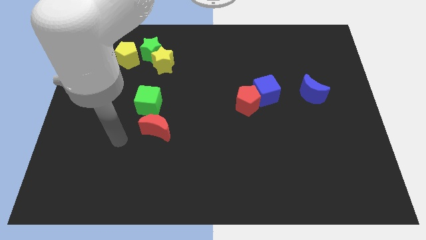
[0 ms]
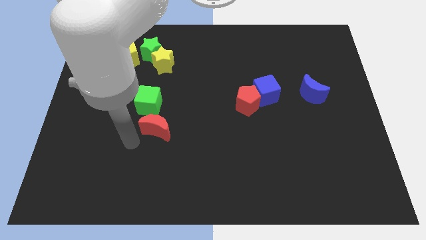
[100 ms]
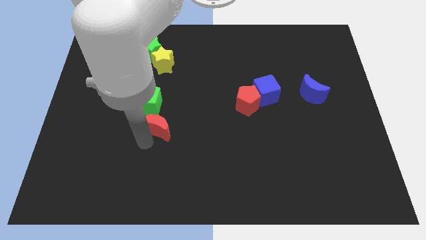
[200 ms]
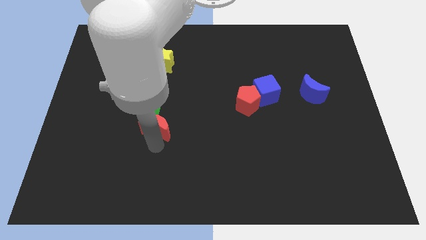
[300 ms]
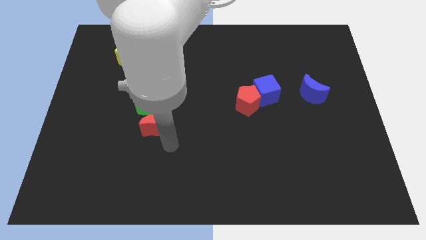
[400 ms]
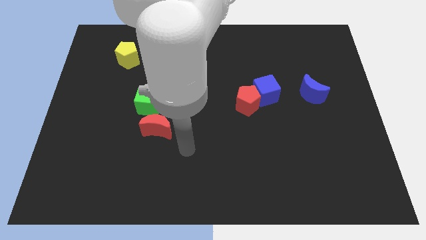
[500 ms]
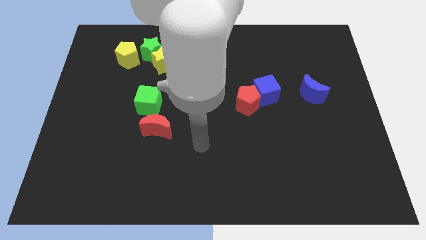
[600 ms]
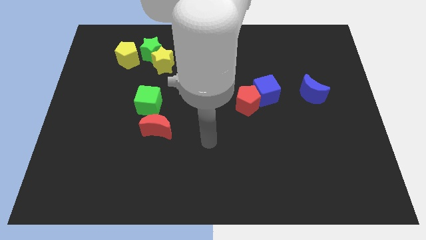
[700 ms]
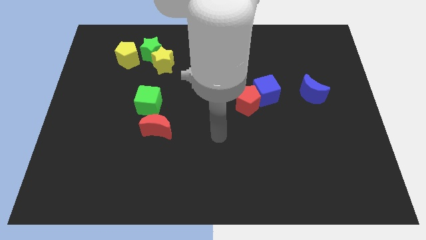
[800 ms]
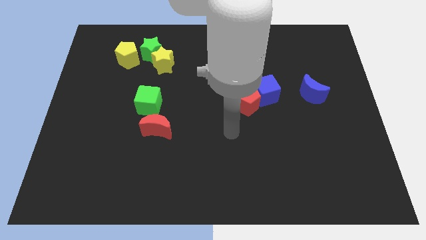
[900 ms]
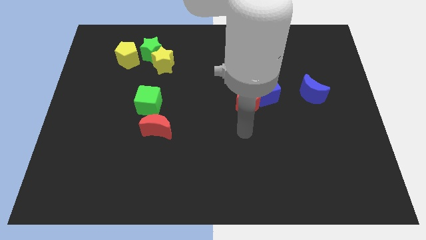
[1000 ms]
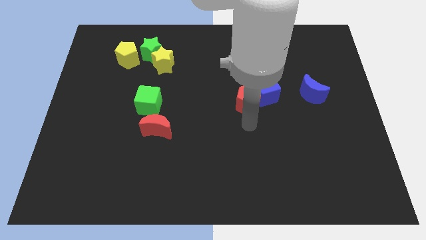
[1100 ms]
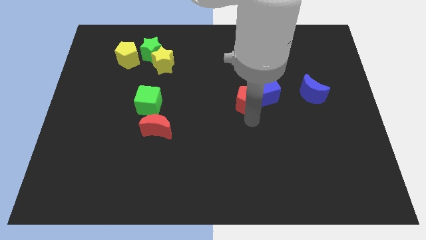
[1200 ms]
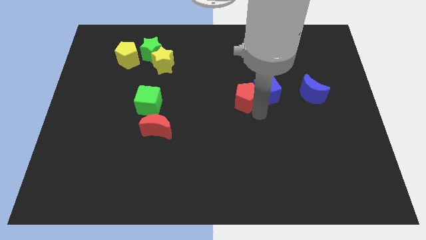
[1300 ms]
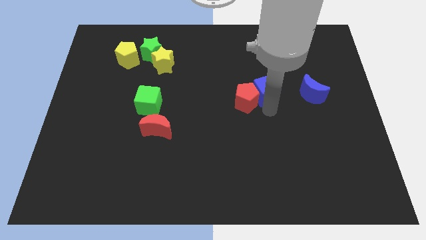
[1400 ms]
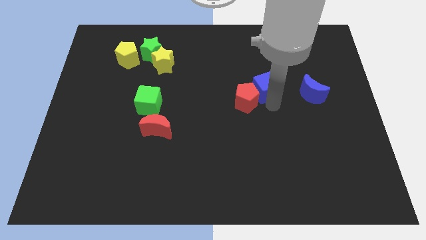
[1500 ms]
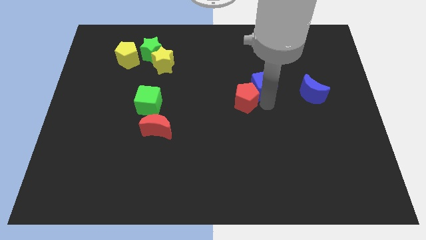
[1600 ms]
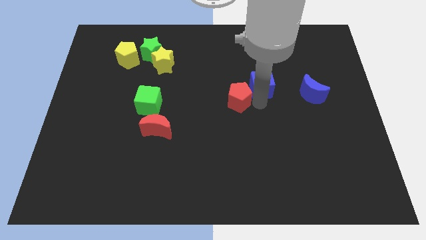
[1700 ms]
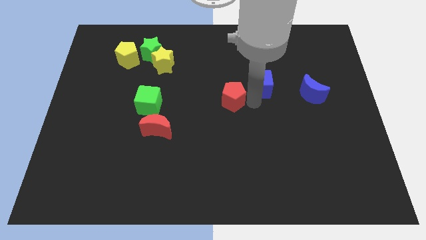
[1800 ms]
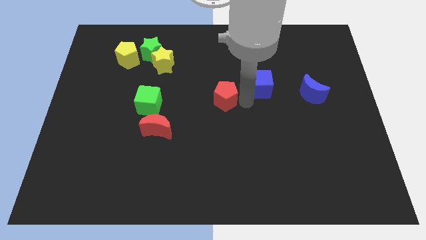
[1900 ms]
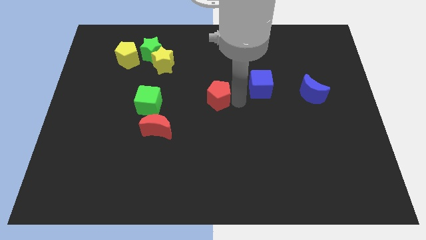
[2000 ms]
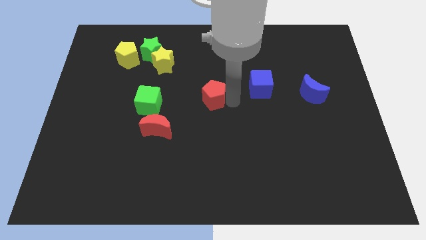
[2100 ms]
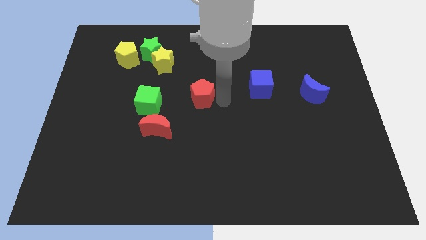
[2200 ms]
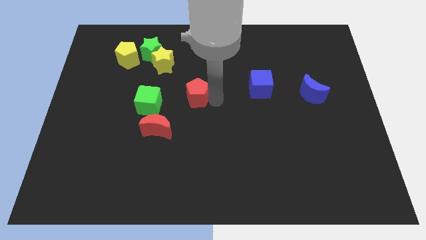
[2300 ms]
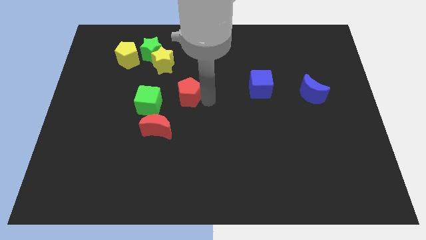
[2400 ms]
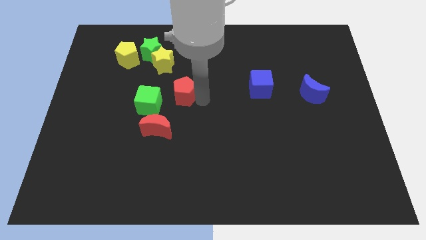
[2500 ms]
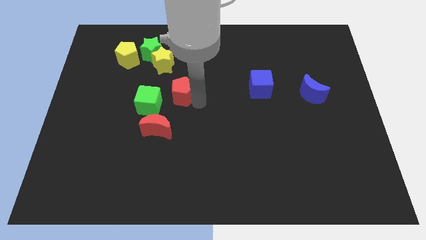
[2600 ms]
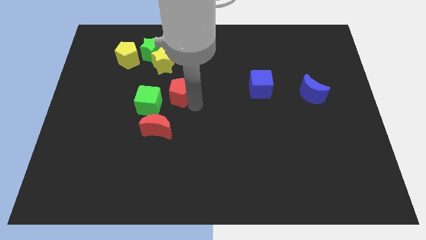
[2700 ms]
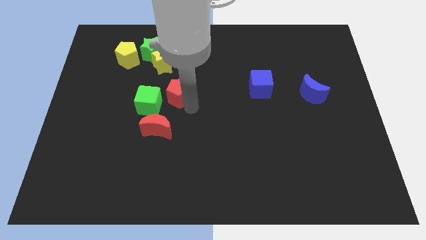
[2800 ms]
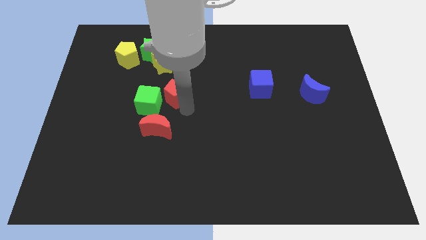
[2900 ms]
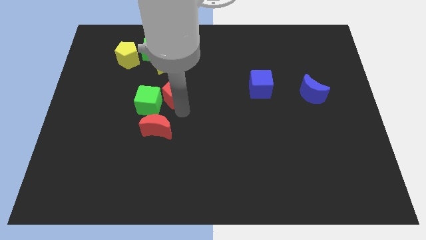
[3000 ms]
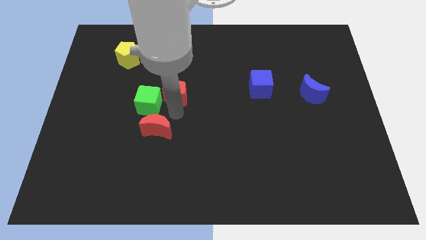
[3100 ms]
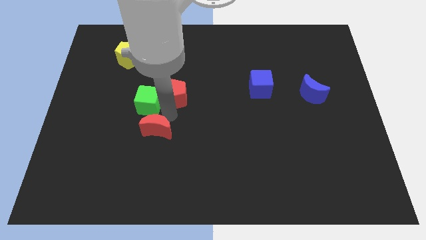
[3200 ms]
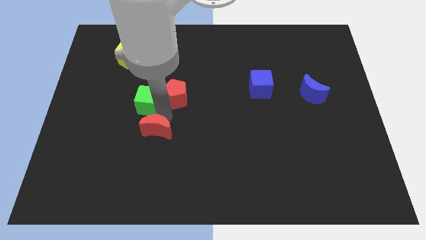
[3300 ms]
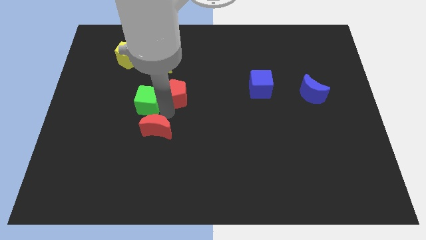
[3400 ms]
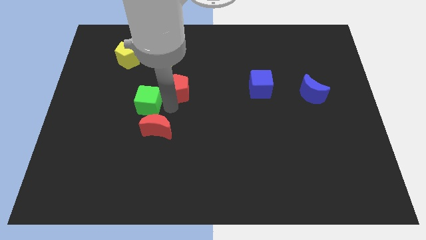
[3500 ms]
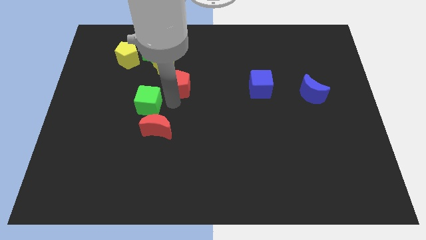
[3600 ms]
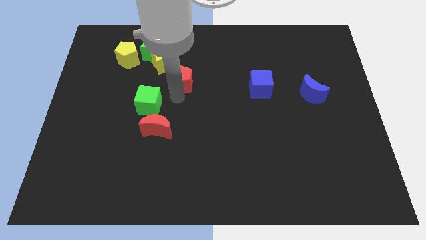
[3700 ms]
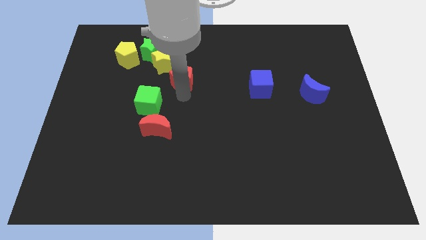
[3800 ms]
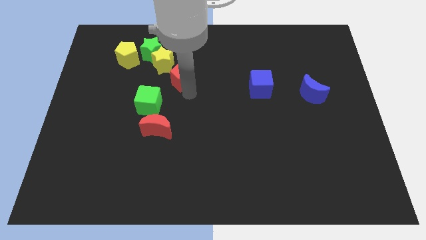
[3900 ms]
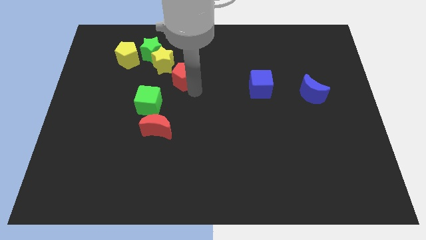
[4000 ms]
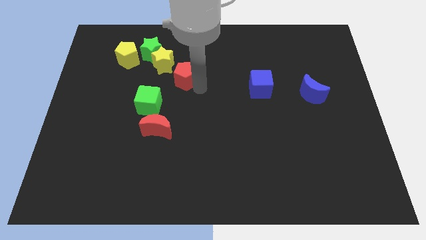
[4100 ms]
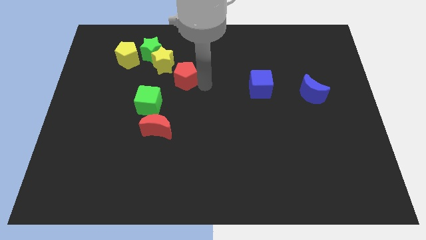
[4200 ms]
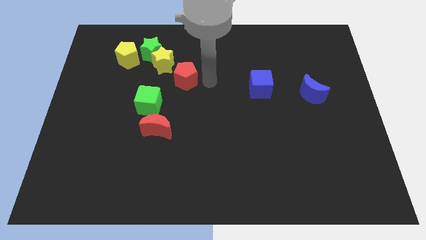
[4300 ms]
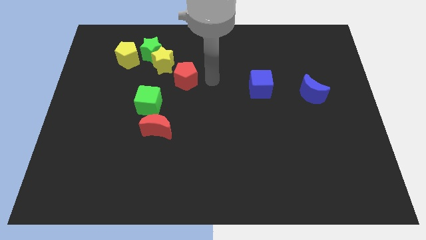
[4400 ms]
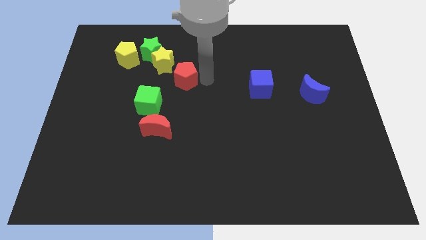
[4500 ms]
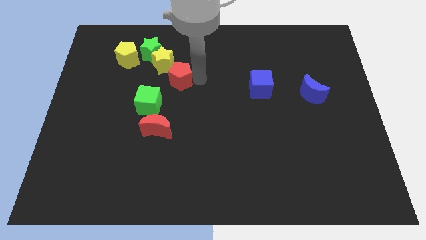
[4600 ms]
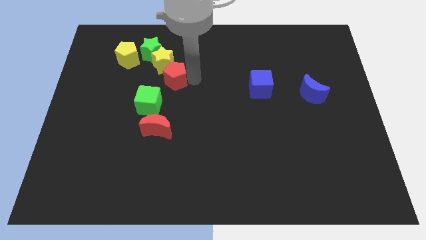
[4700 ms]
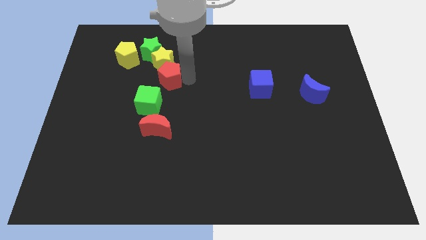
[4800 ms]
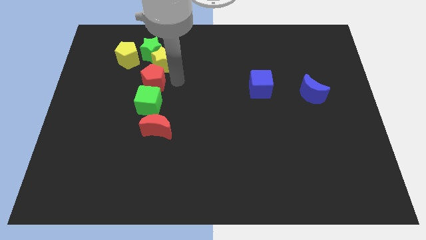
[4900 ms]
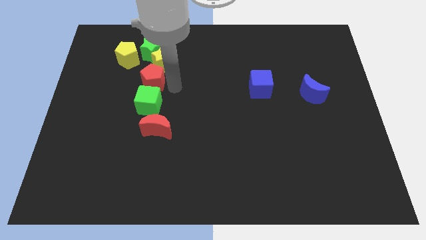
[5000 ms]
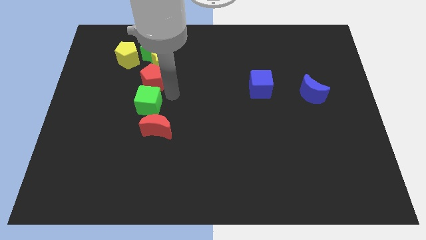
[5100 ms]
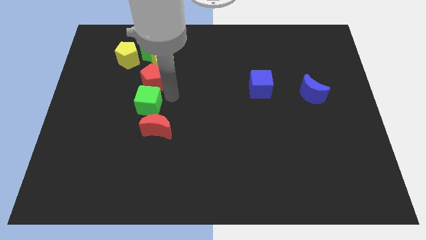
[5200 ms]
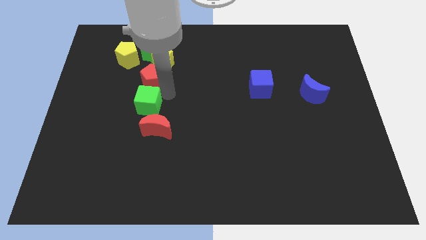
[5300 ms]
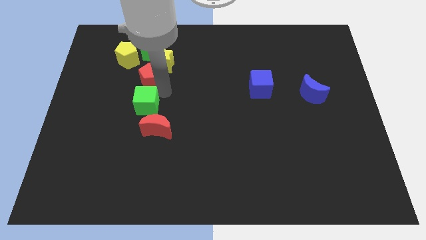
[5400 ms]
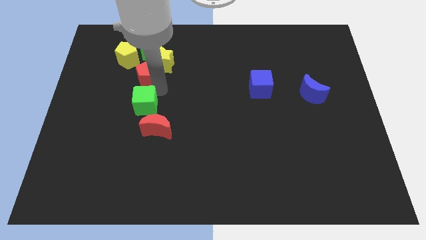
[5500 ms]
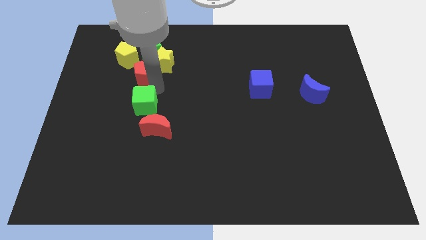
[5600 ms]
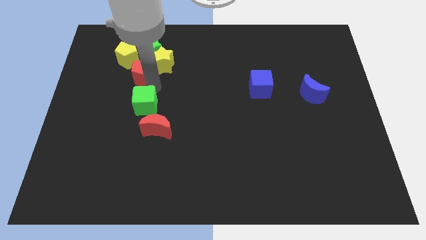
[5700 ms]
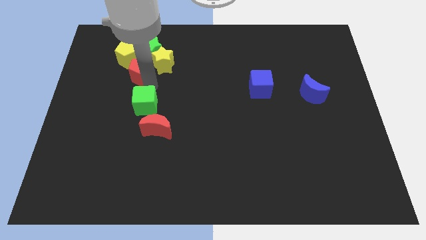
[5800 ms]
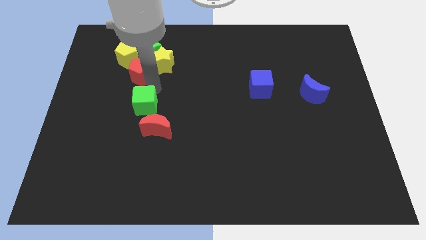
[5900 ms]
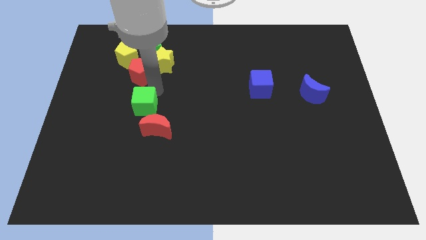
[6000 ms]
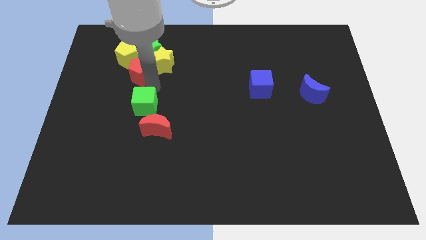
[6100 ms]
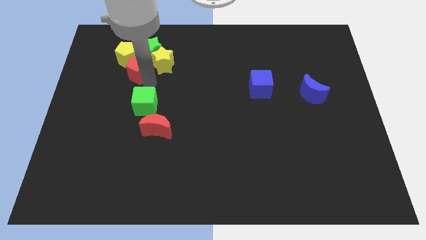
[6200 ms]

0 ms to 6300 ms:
move the red pentagon to the yellow pentagon

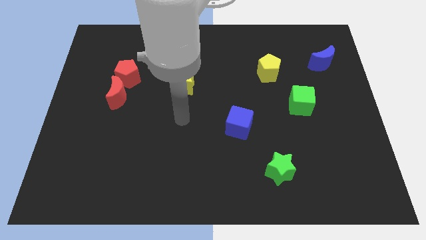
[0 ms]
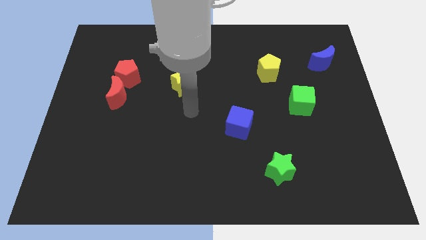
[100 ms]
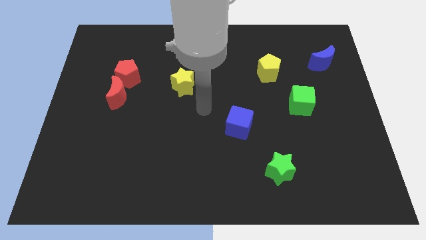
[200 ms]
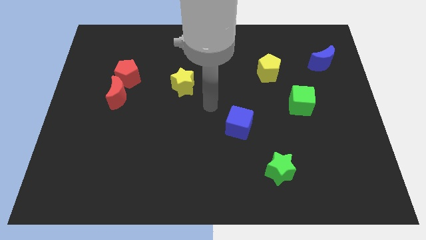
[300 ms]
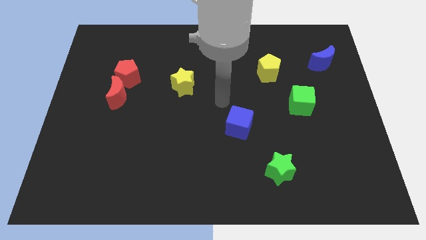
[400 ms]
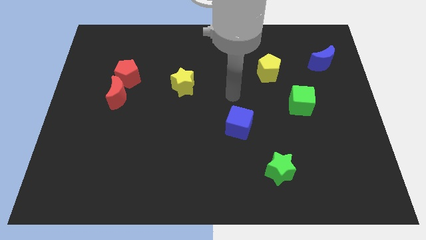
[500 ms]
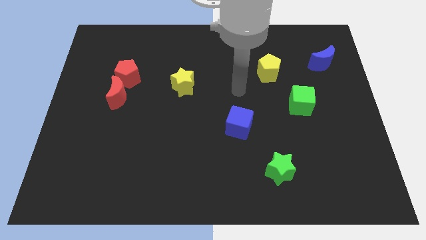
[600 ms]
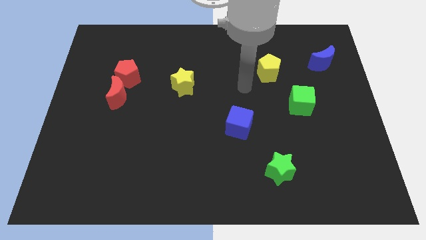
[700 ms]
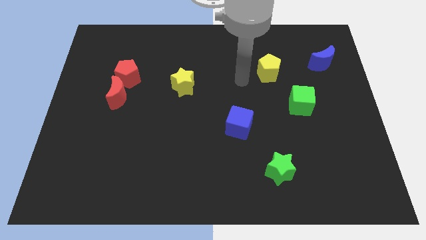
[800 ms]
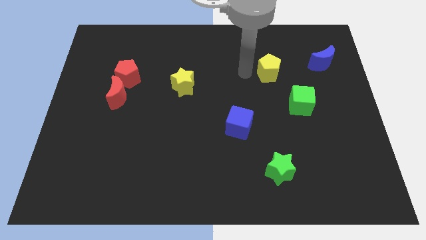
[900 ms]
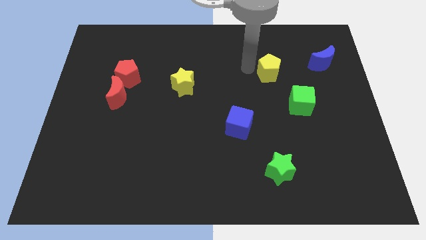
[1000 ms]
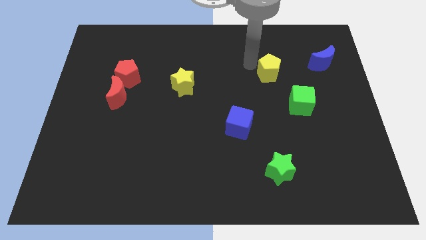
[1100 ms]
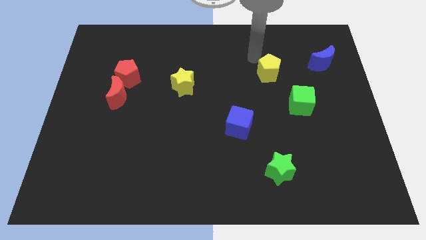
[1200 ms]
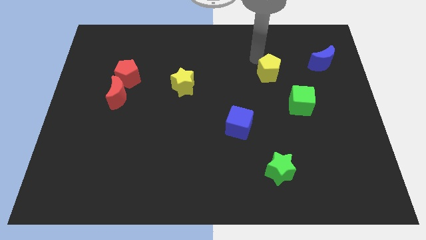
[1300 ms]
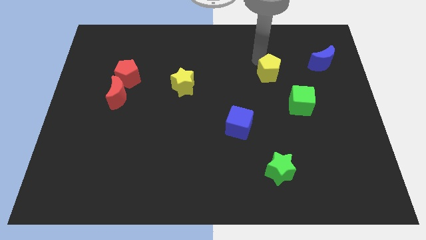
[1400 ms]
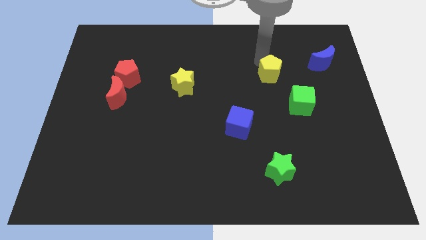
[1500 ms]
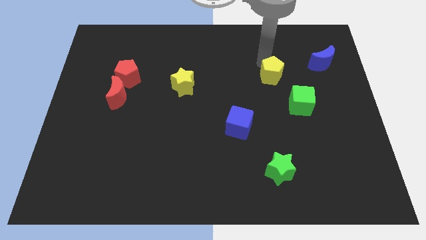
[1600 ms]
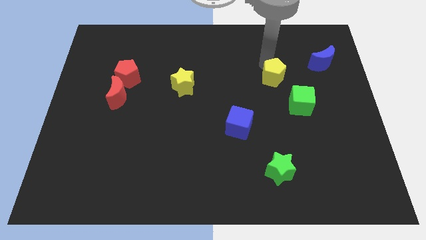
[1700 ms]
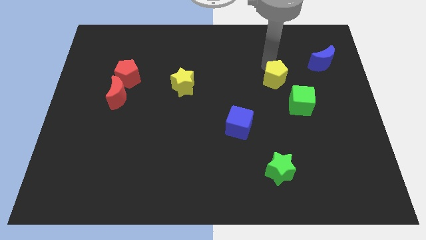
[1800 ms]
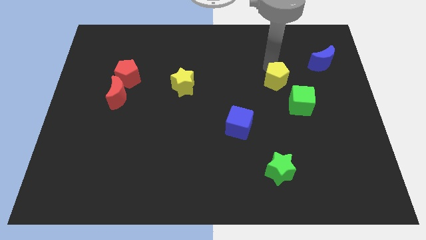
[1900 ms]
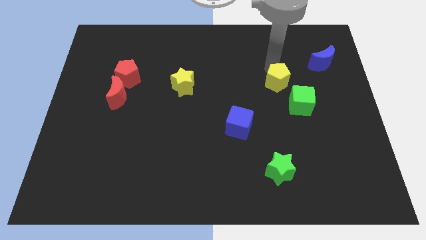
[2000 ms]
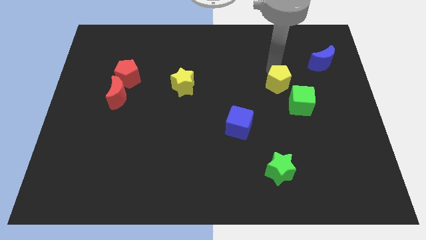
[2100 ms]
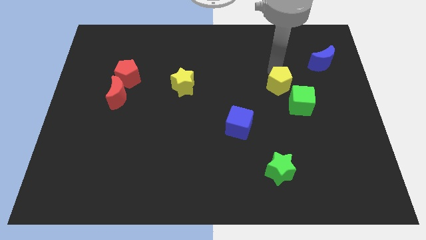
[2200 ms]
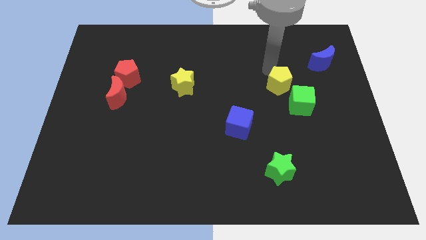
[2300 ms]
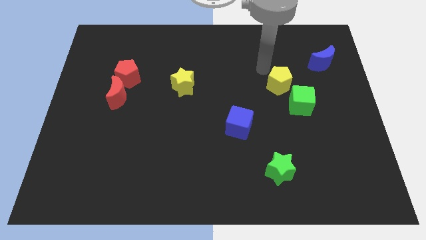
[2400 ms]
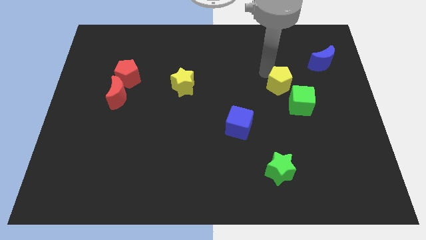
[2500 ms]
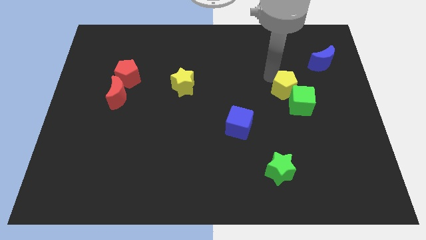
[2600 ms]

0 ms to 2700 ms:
push the yellow pentagon next to the green cube
